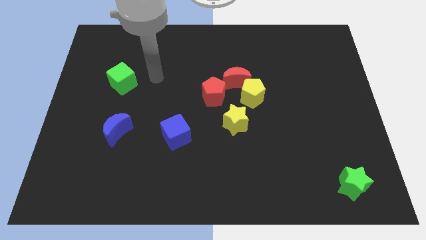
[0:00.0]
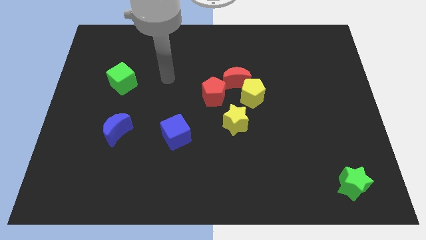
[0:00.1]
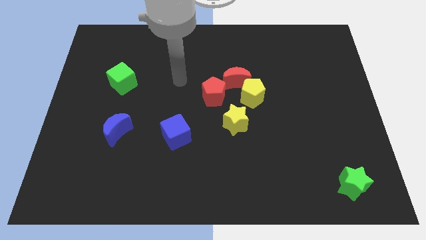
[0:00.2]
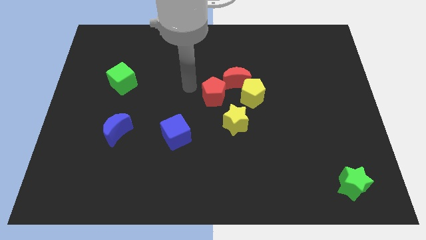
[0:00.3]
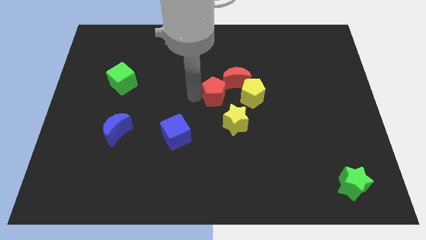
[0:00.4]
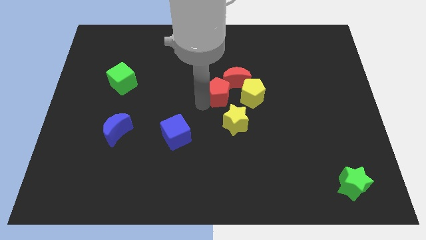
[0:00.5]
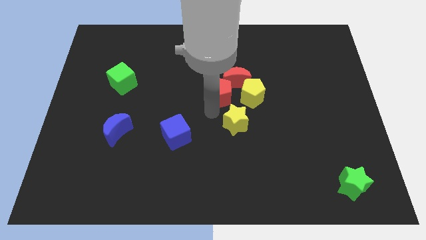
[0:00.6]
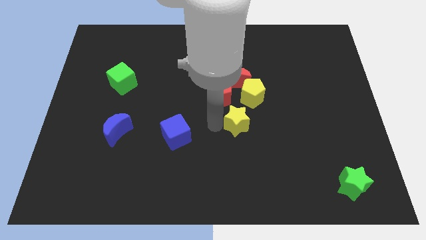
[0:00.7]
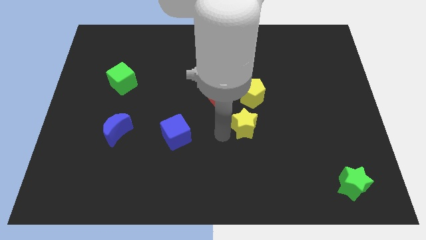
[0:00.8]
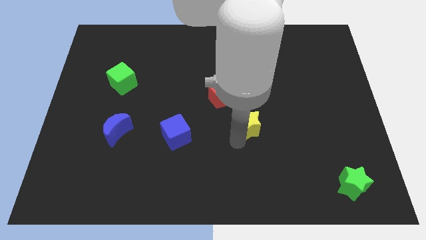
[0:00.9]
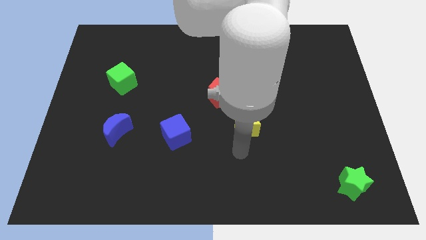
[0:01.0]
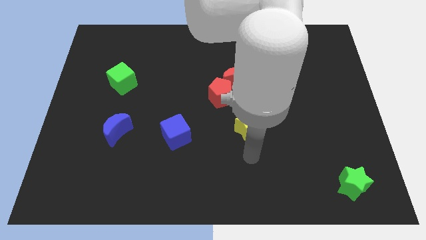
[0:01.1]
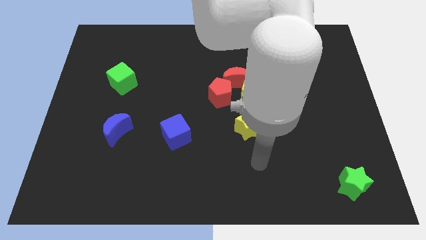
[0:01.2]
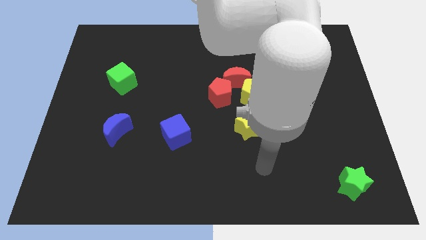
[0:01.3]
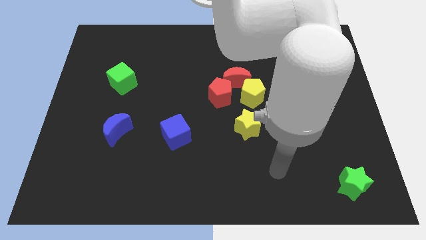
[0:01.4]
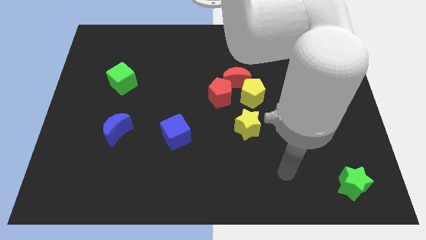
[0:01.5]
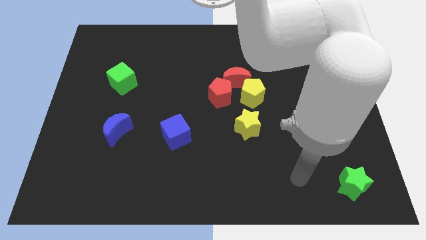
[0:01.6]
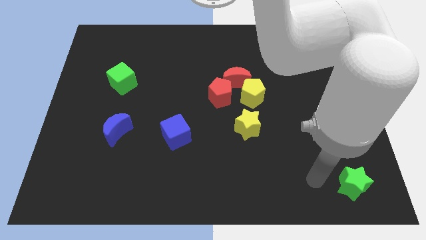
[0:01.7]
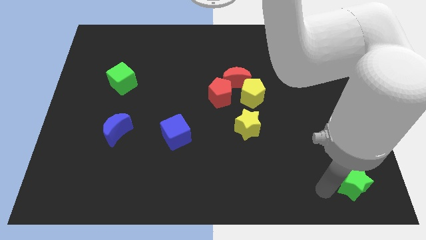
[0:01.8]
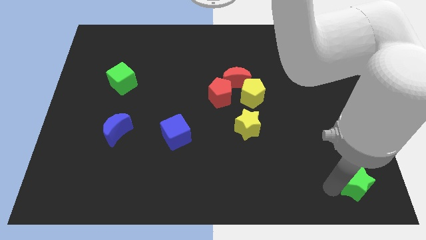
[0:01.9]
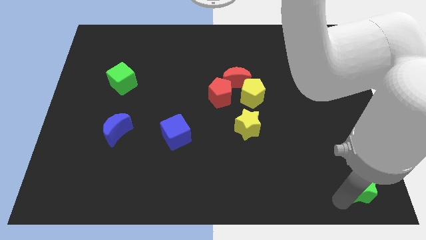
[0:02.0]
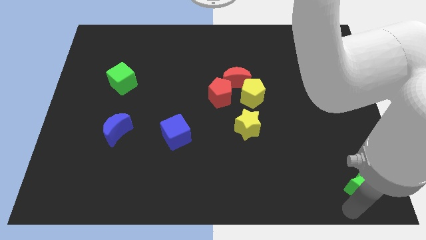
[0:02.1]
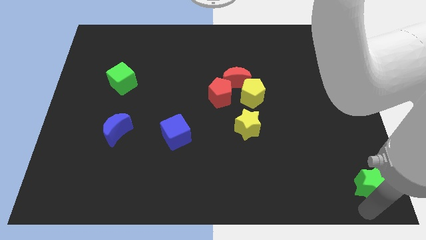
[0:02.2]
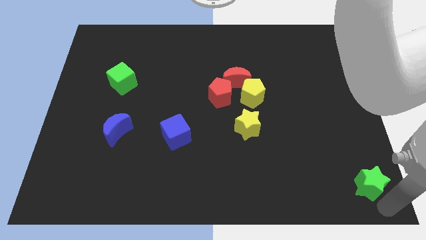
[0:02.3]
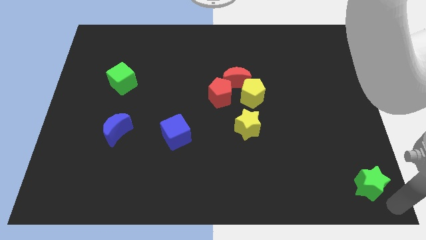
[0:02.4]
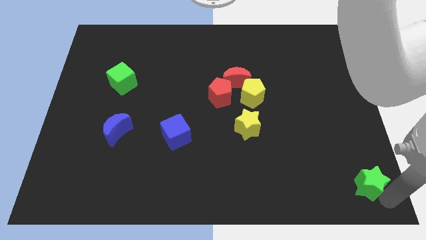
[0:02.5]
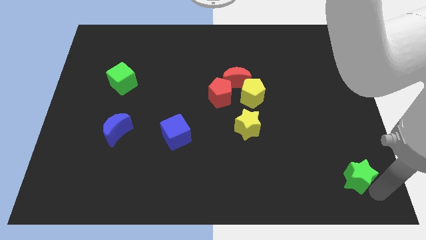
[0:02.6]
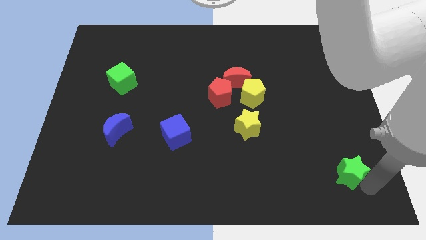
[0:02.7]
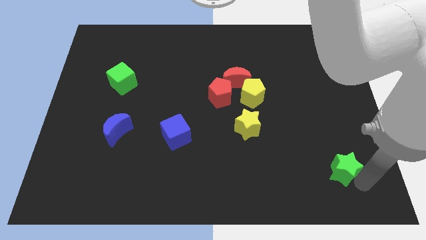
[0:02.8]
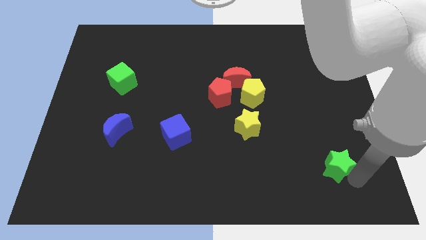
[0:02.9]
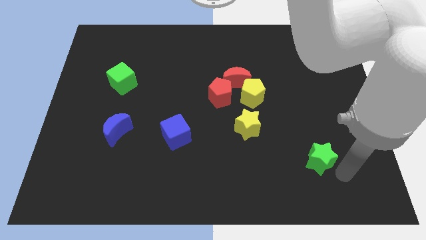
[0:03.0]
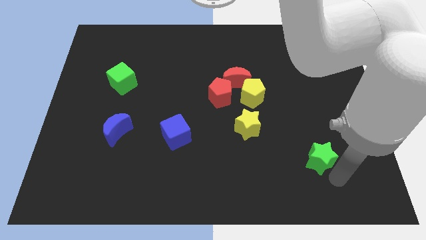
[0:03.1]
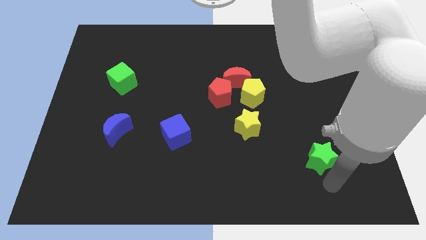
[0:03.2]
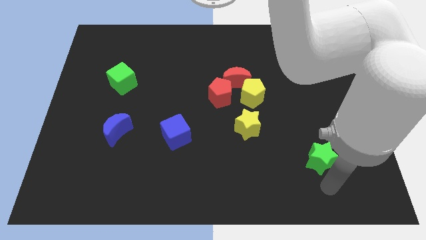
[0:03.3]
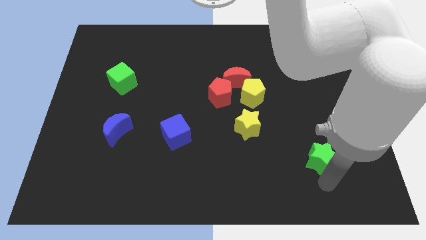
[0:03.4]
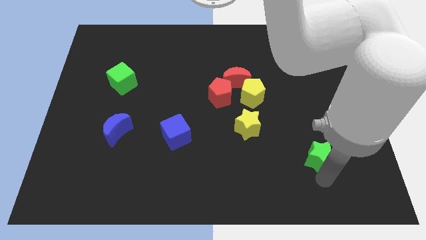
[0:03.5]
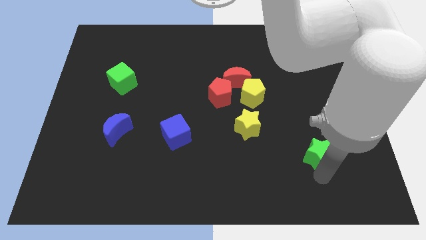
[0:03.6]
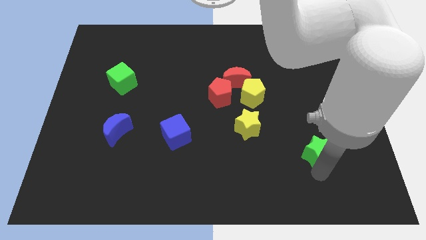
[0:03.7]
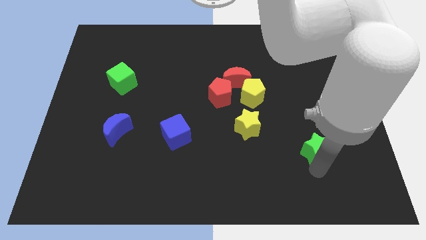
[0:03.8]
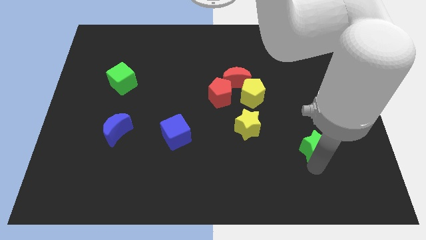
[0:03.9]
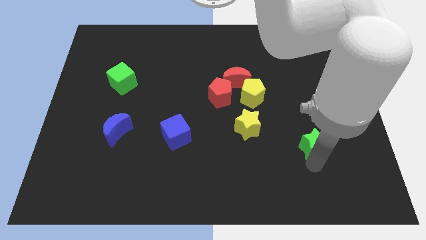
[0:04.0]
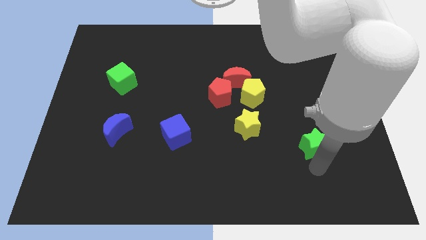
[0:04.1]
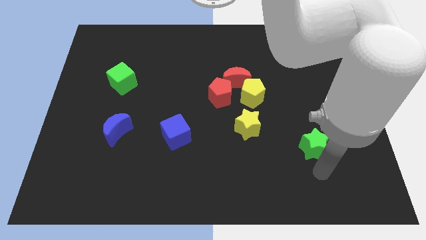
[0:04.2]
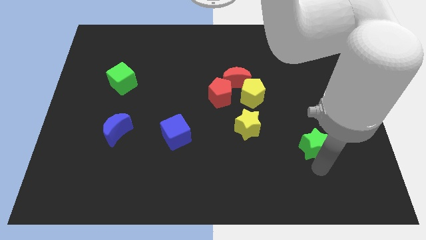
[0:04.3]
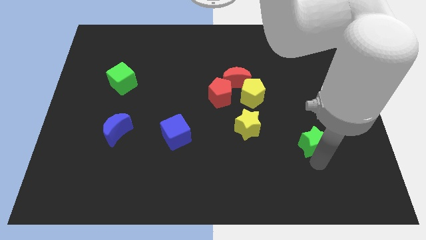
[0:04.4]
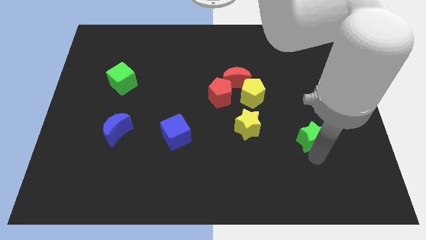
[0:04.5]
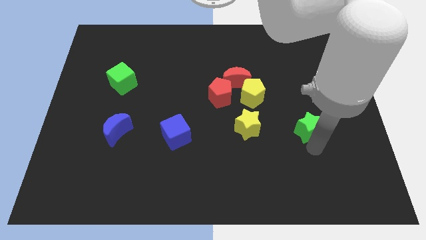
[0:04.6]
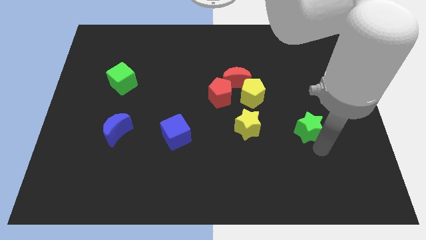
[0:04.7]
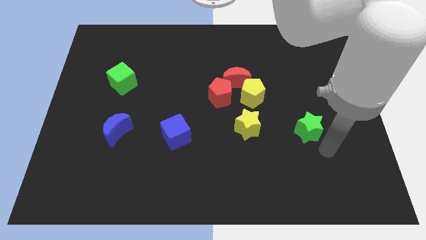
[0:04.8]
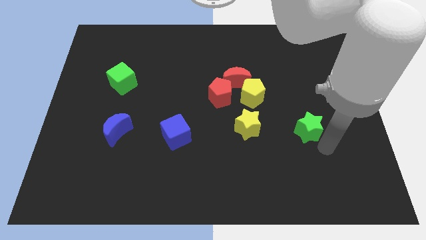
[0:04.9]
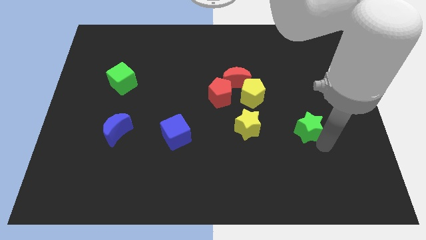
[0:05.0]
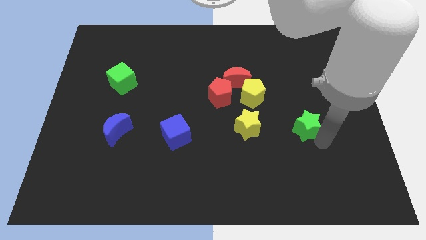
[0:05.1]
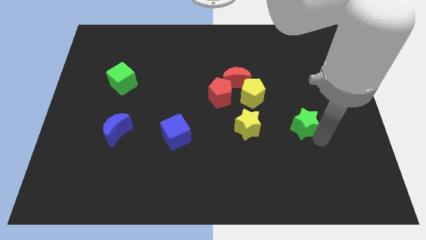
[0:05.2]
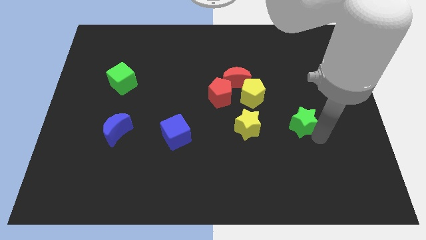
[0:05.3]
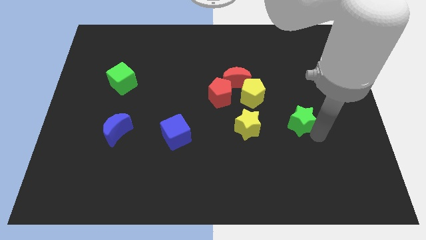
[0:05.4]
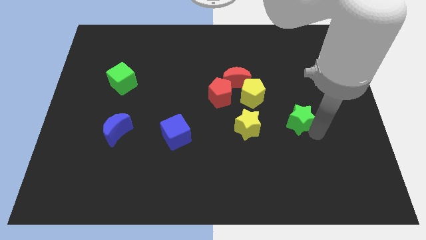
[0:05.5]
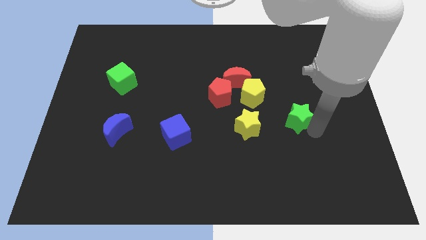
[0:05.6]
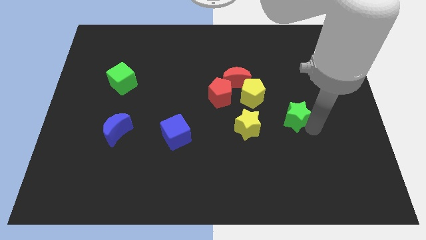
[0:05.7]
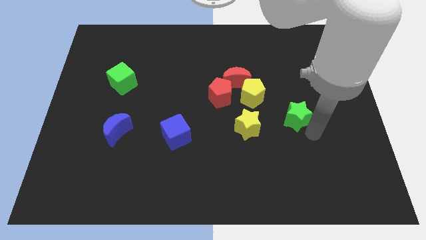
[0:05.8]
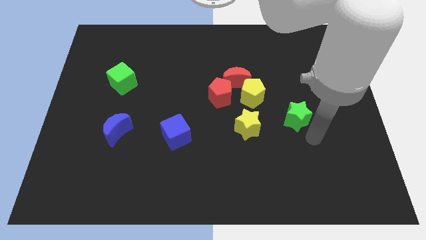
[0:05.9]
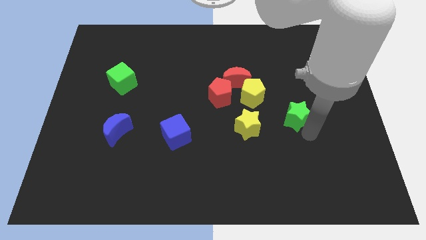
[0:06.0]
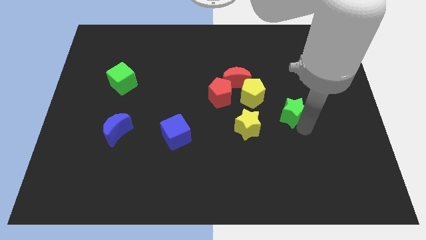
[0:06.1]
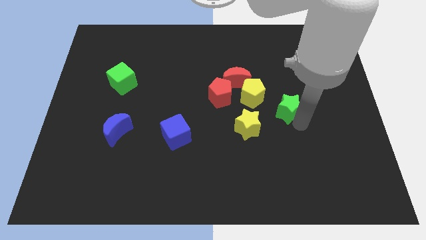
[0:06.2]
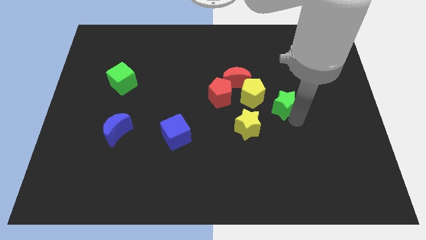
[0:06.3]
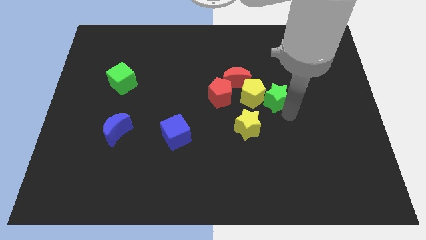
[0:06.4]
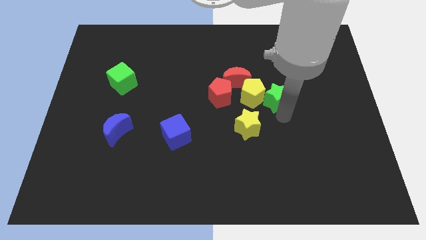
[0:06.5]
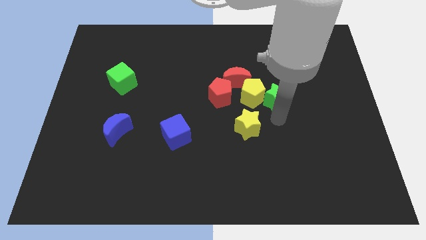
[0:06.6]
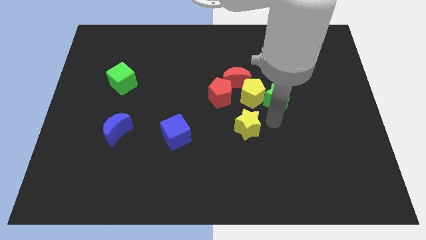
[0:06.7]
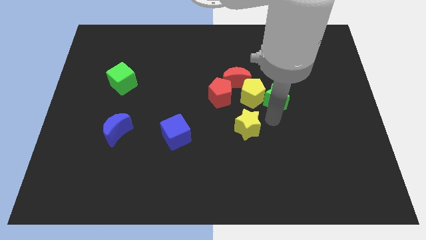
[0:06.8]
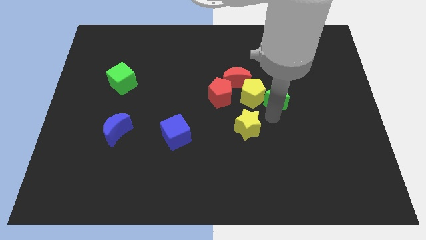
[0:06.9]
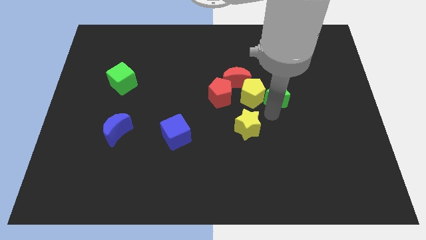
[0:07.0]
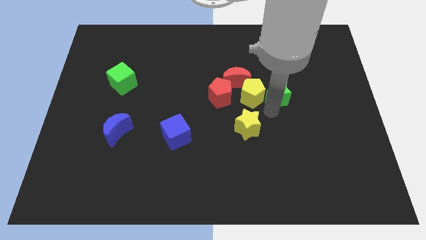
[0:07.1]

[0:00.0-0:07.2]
move the green star just right of the red moon
